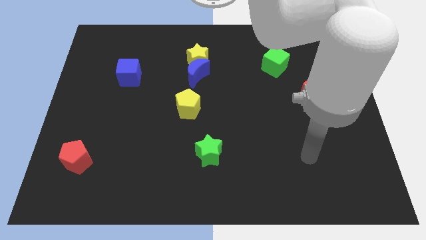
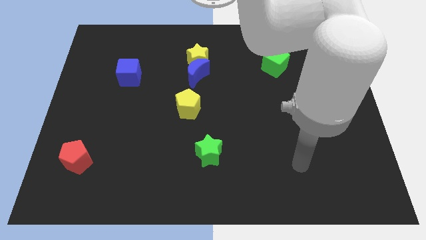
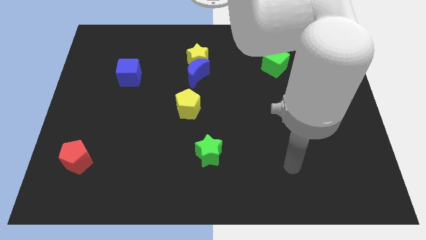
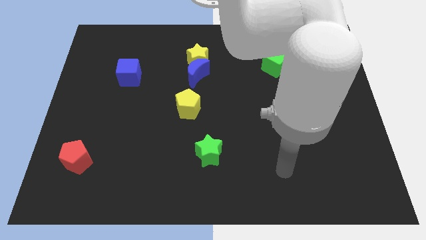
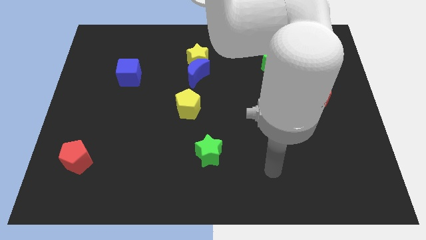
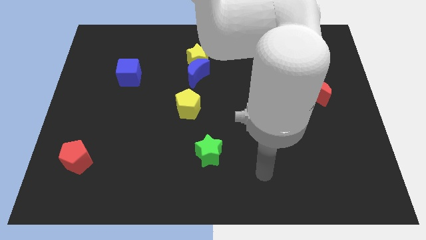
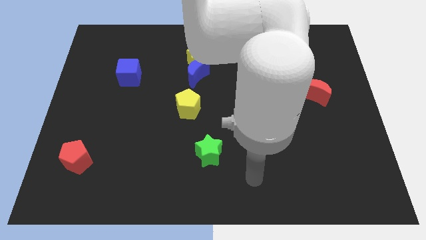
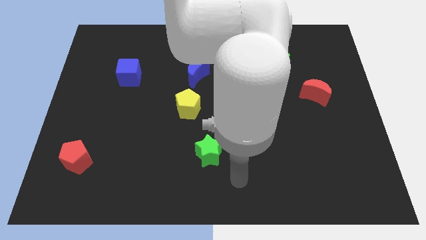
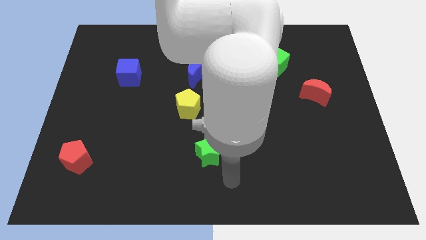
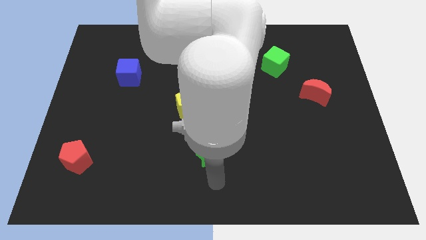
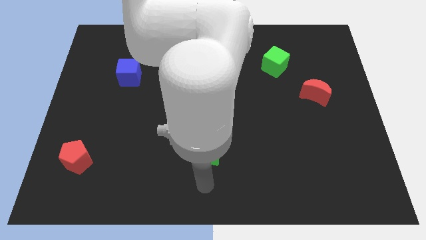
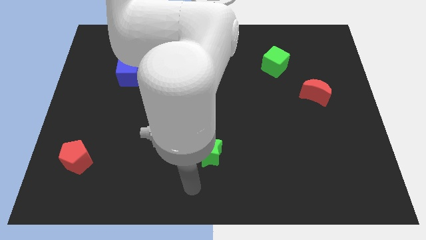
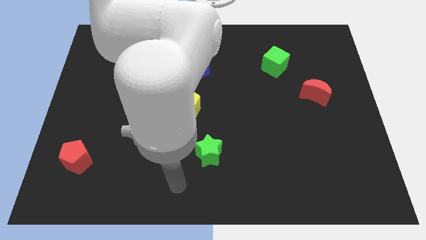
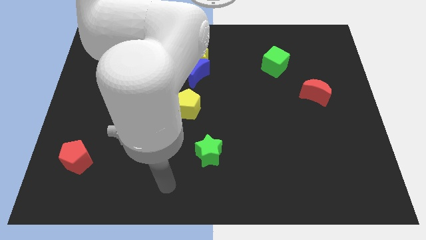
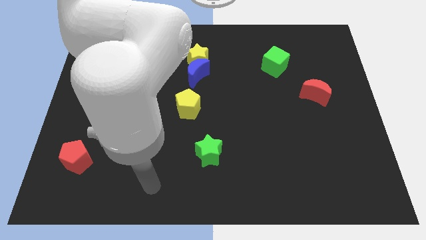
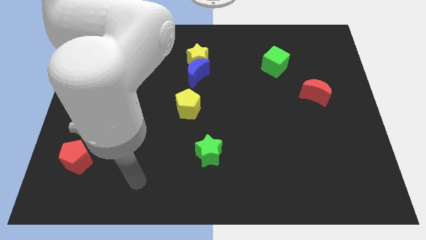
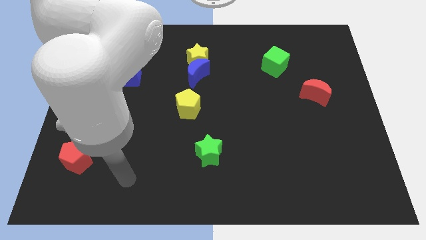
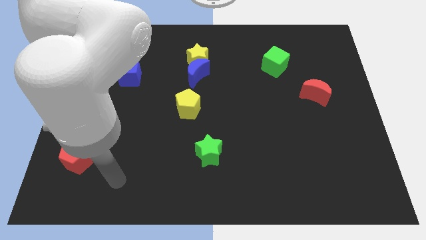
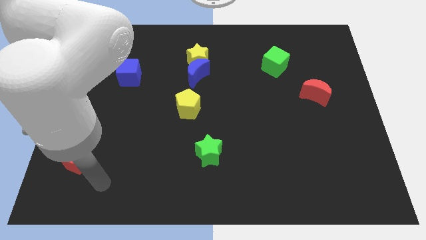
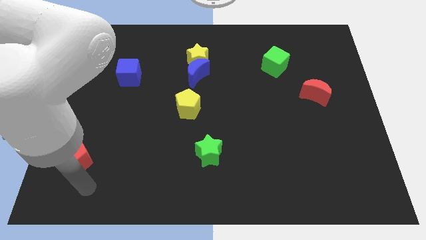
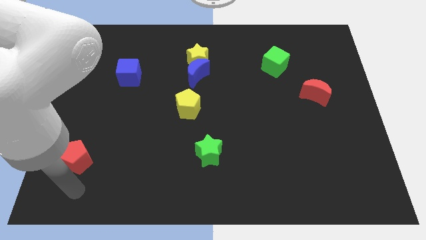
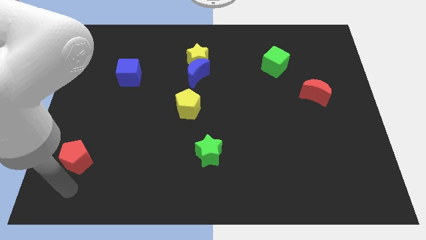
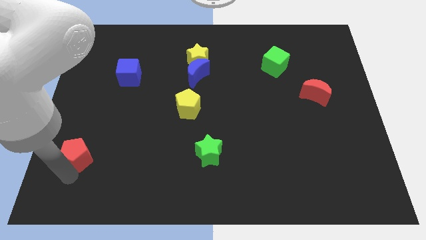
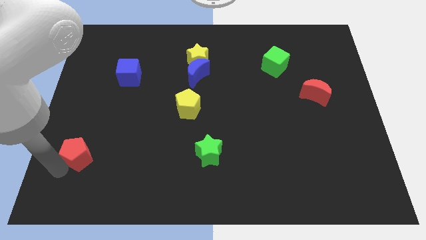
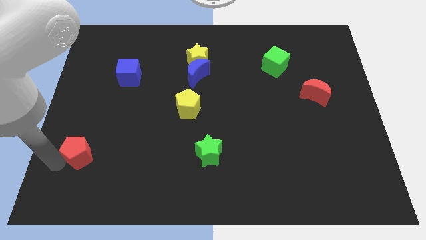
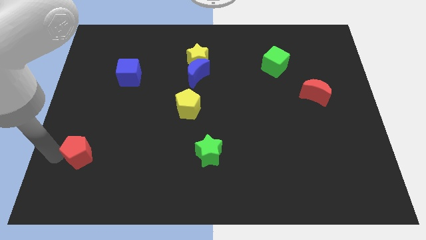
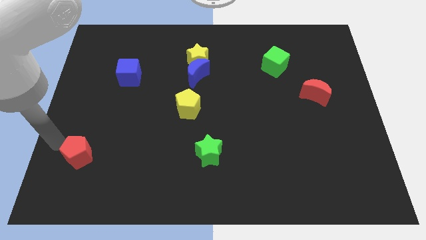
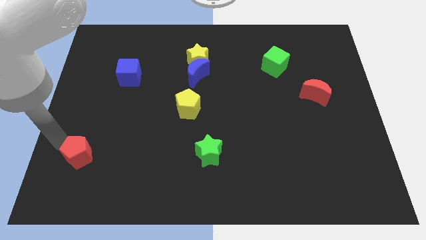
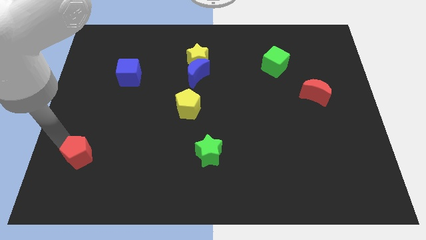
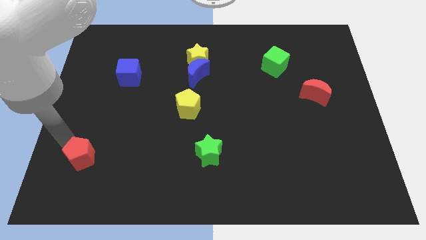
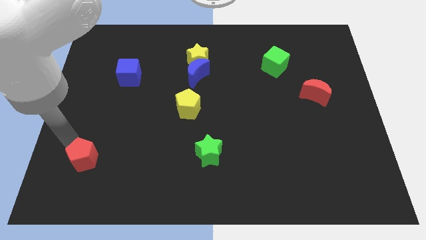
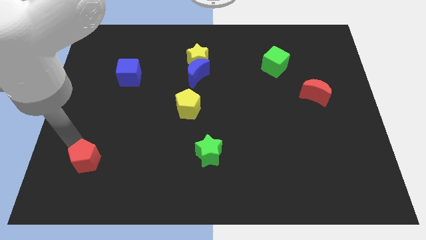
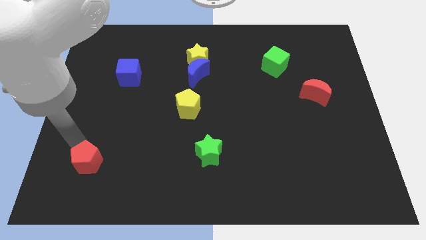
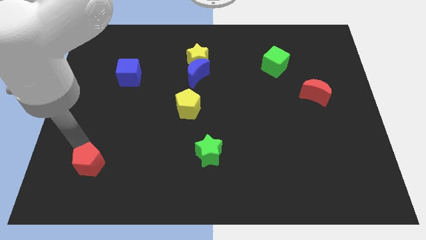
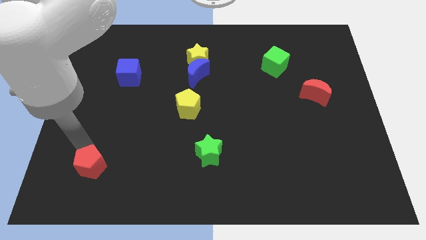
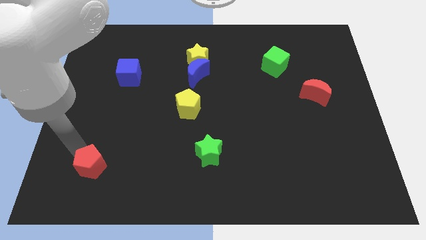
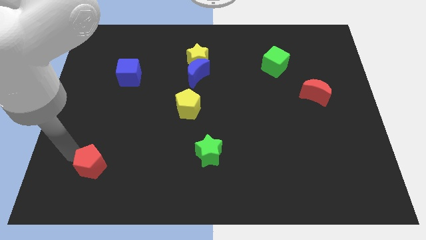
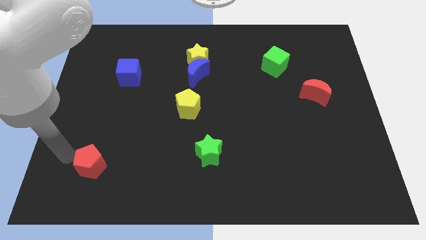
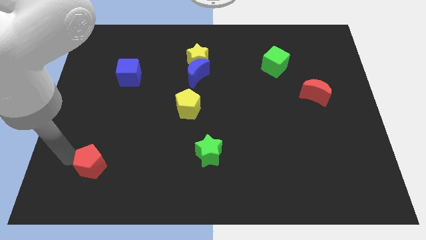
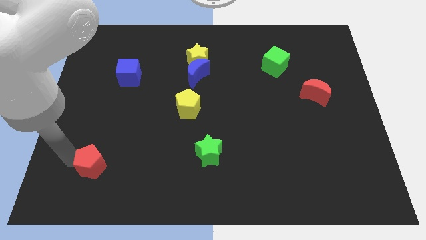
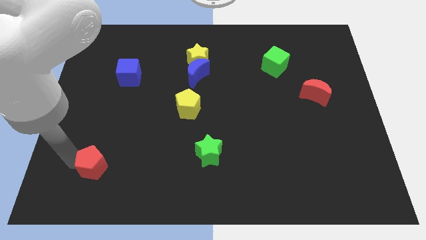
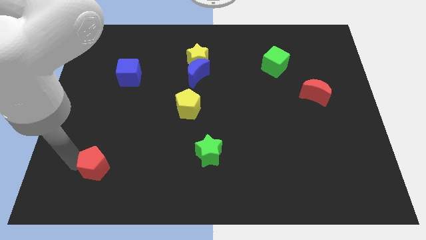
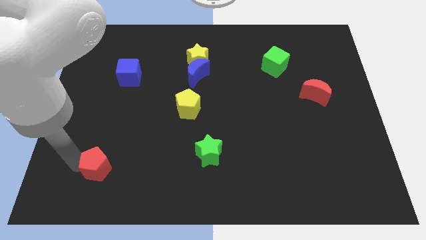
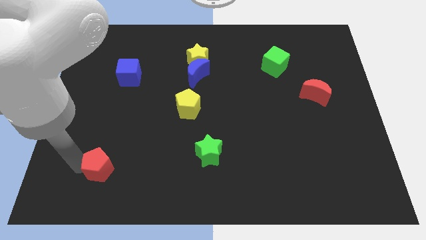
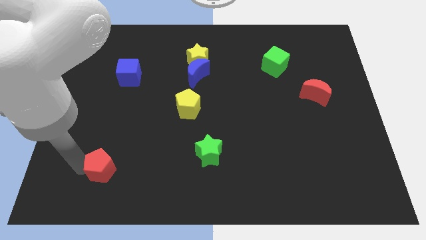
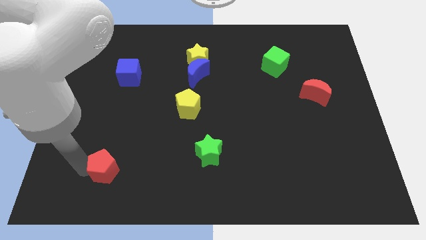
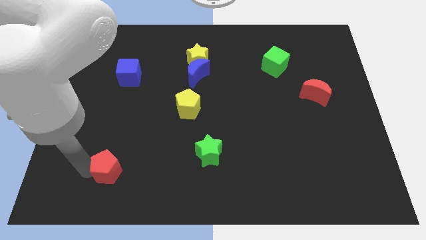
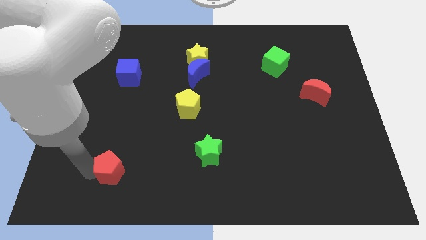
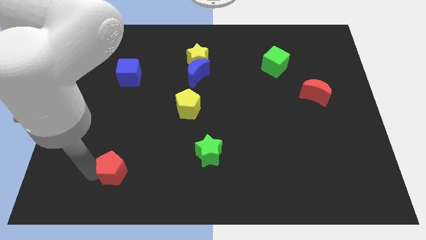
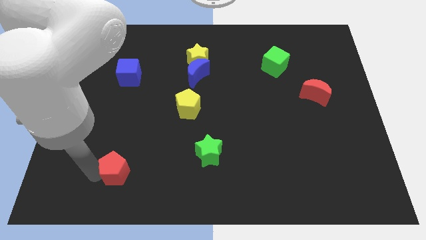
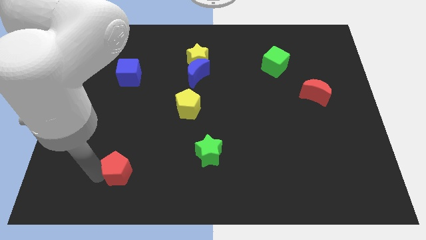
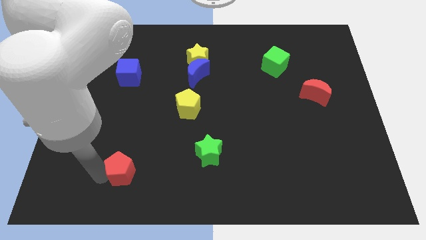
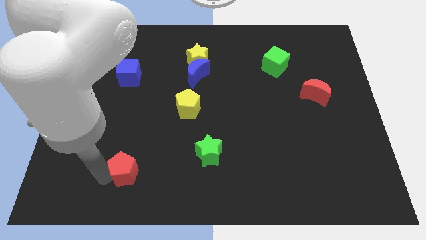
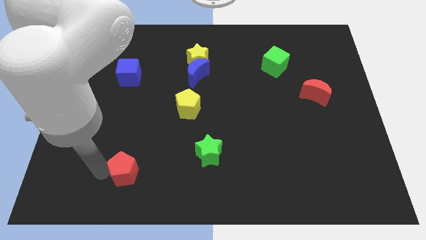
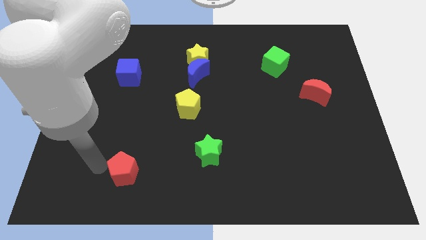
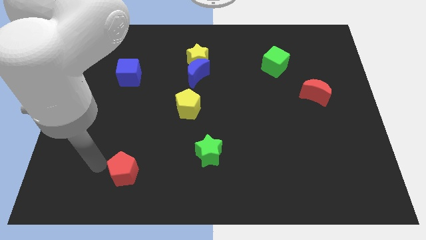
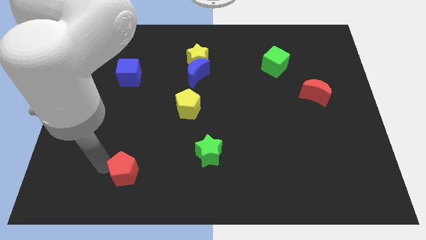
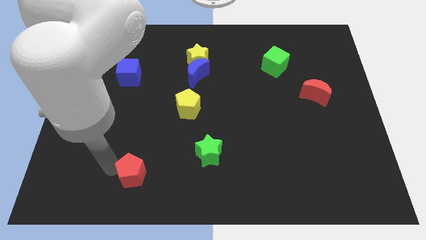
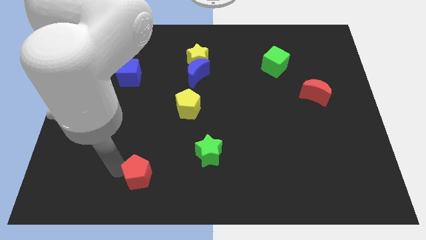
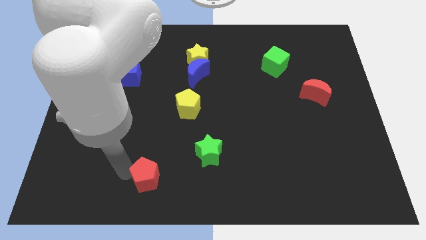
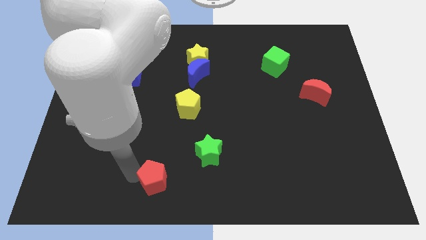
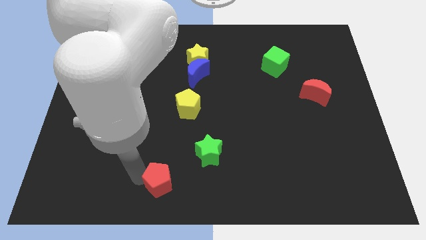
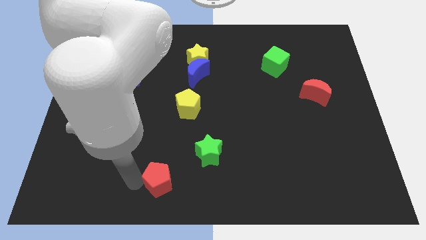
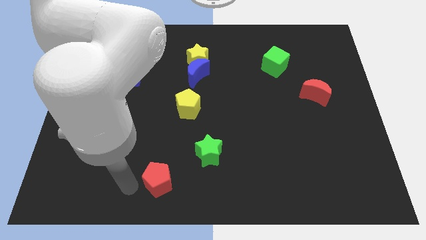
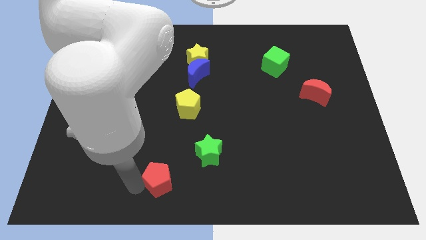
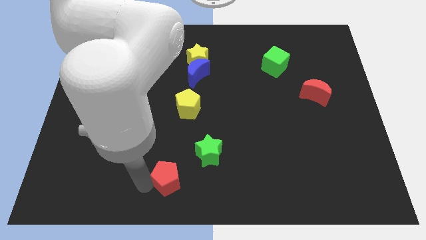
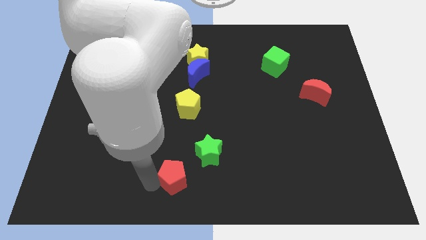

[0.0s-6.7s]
move the red pentagon right

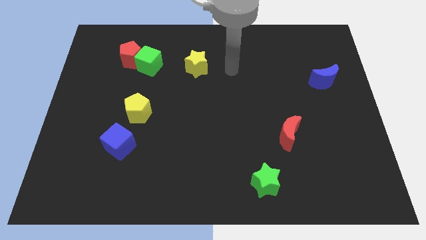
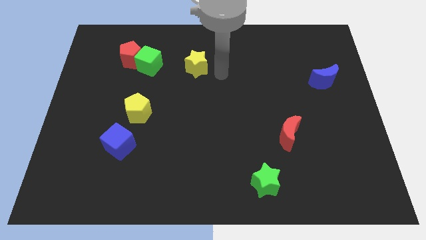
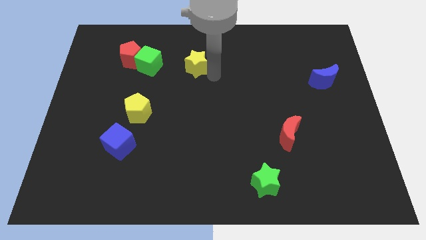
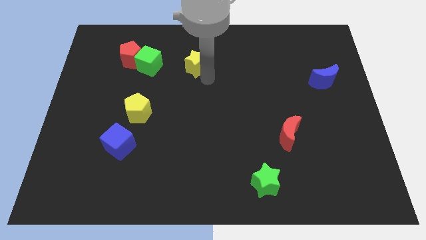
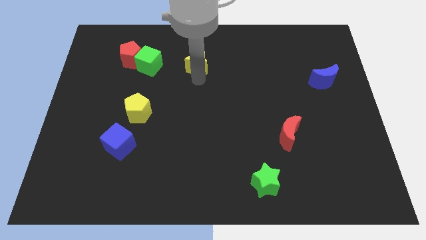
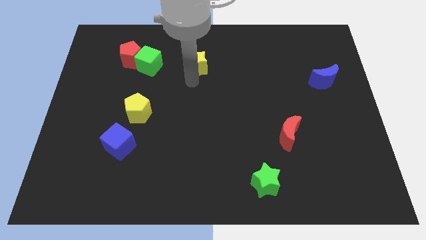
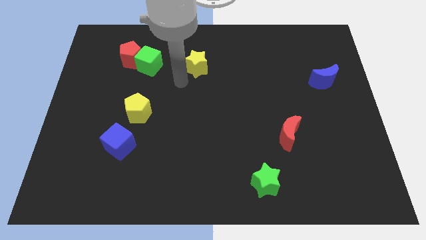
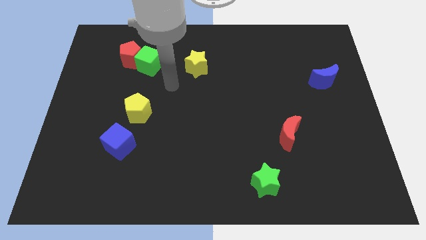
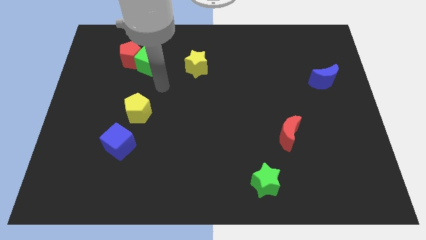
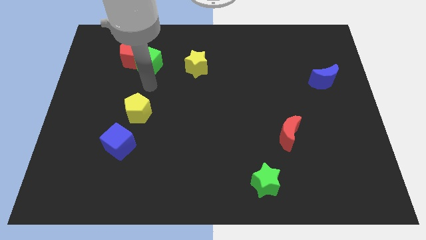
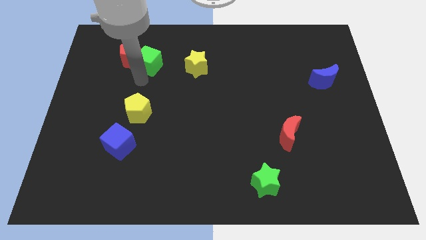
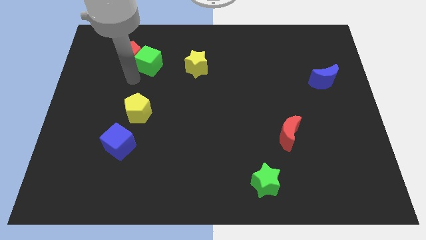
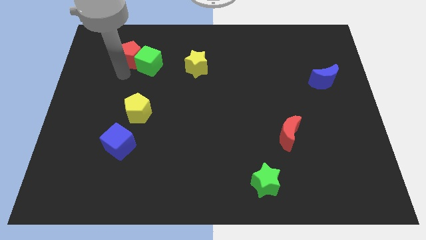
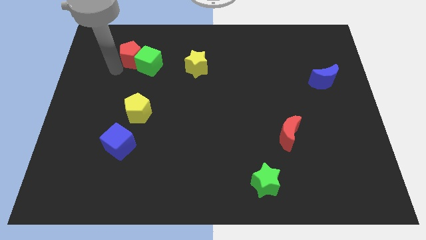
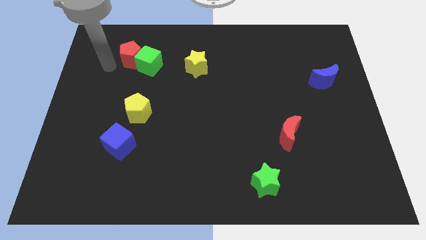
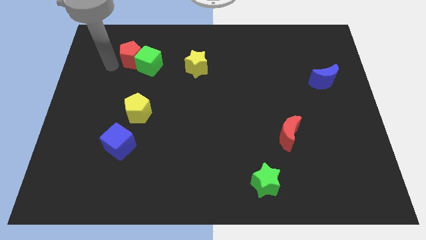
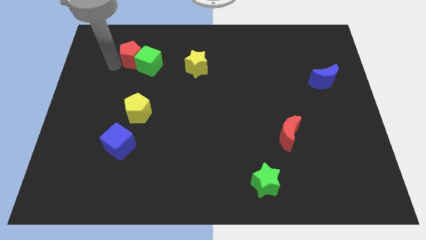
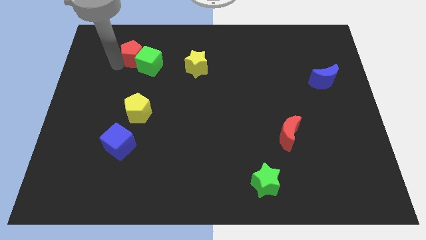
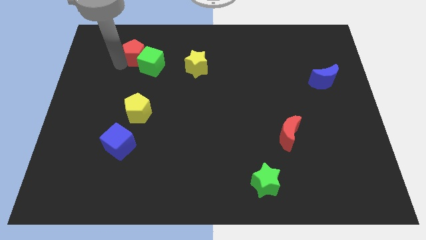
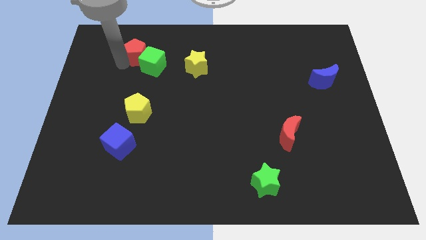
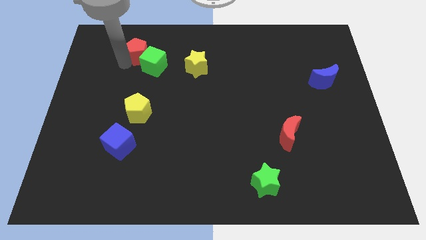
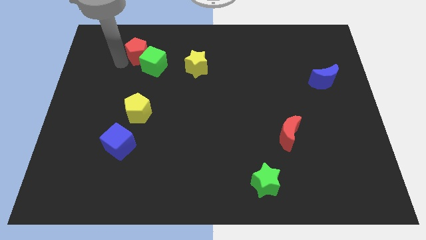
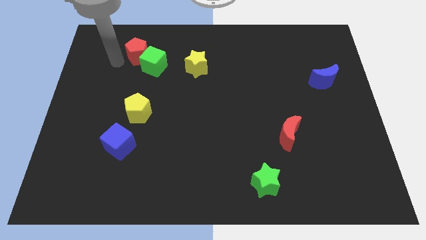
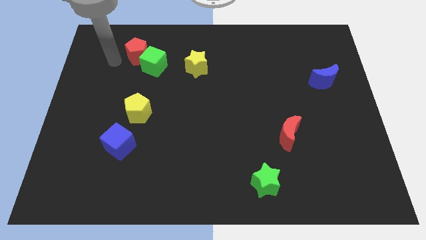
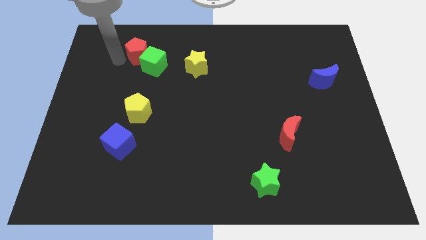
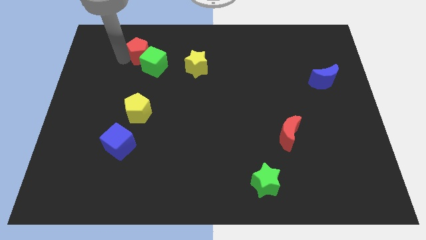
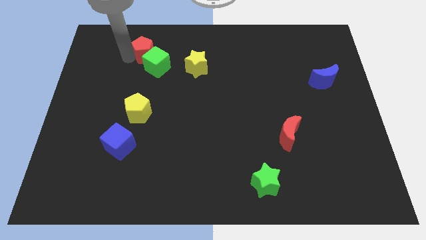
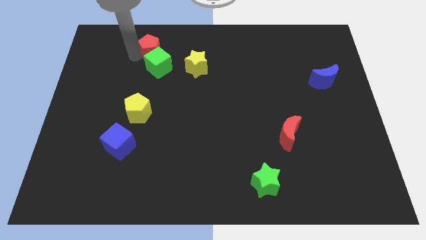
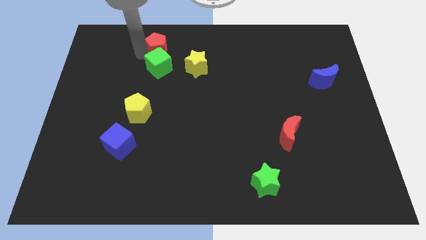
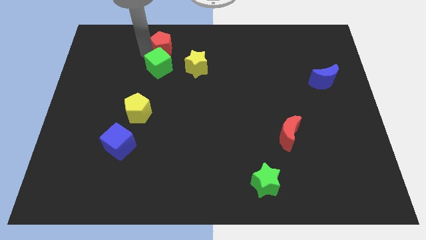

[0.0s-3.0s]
push the red pentagon right somewhat
